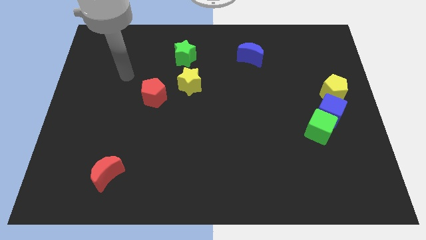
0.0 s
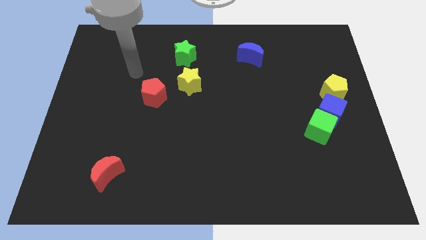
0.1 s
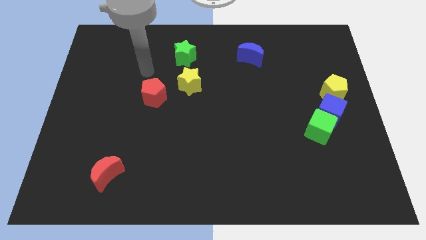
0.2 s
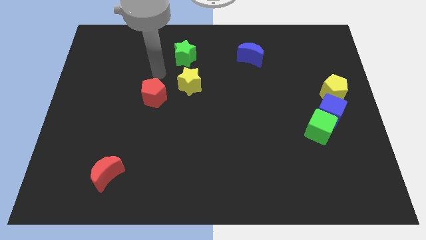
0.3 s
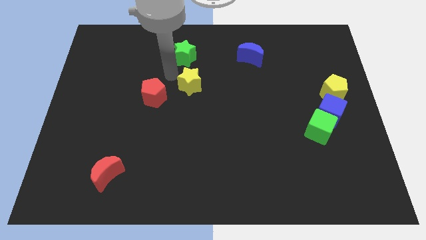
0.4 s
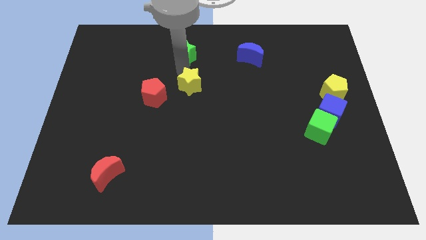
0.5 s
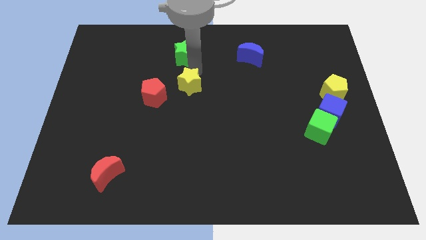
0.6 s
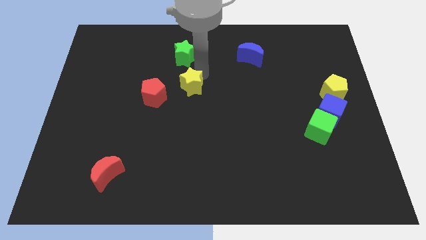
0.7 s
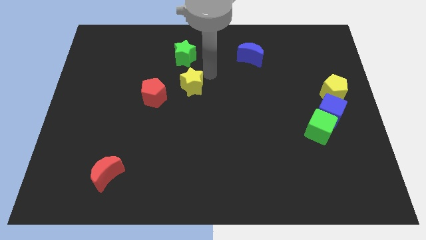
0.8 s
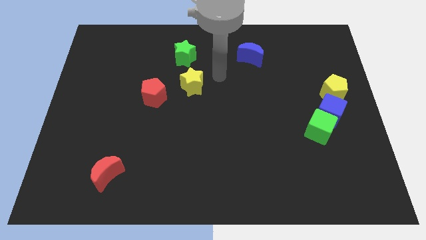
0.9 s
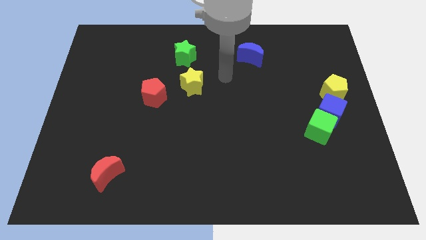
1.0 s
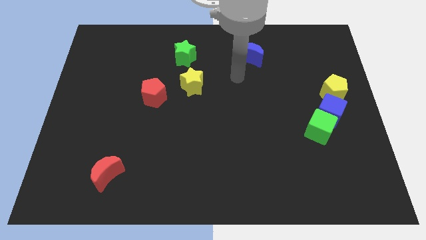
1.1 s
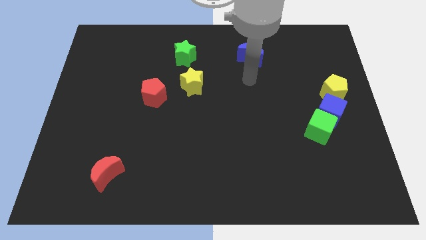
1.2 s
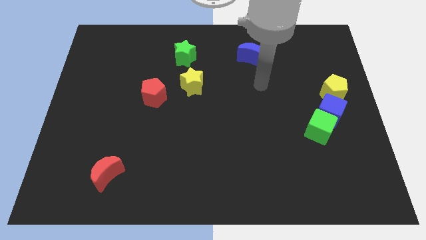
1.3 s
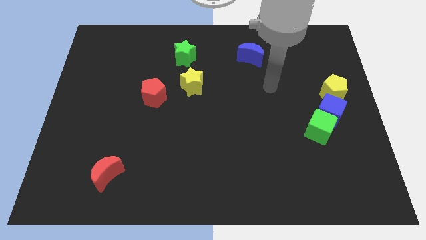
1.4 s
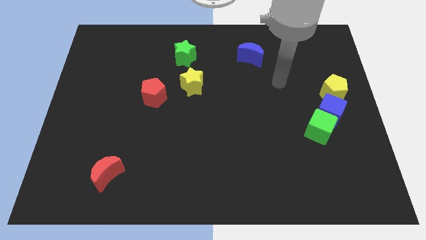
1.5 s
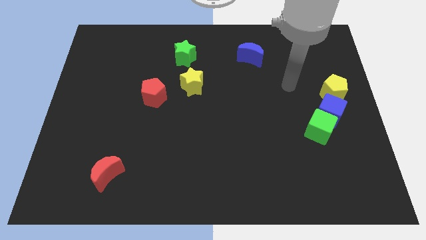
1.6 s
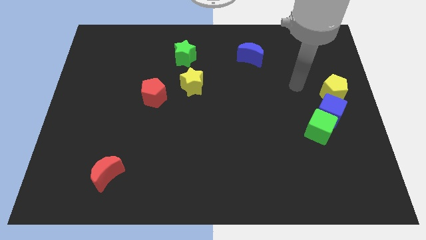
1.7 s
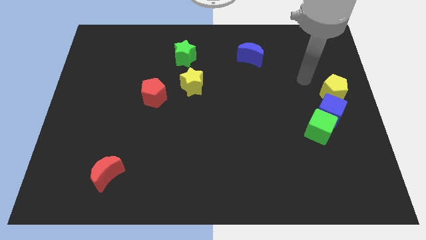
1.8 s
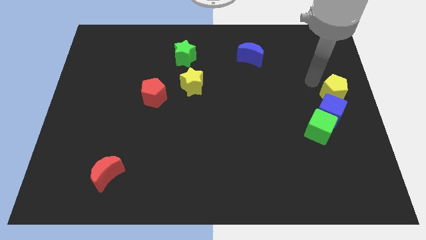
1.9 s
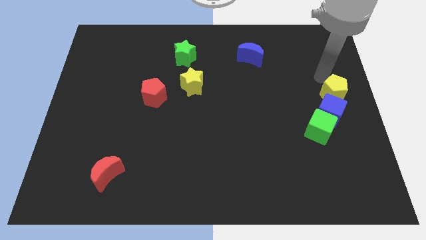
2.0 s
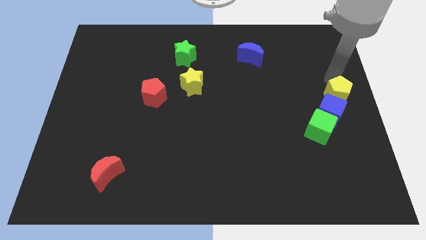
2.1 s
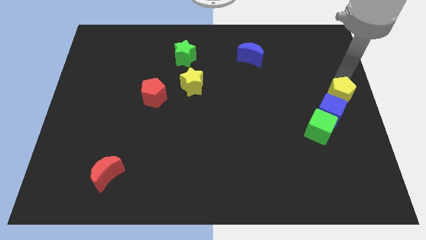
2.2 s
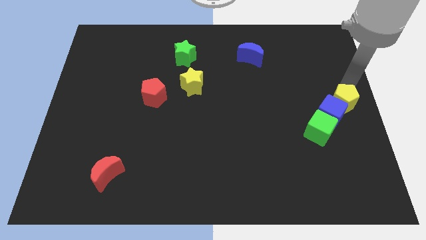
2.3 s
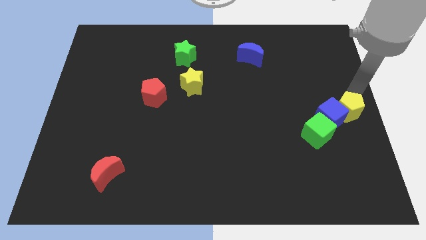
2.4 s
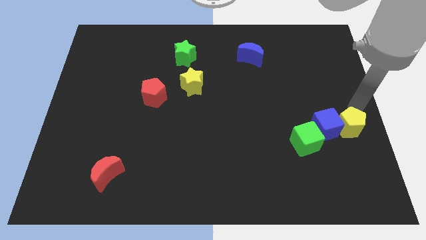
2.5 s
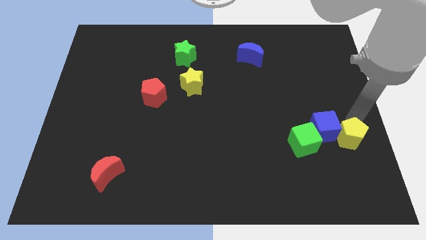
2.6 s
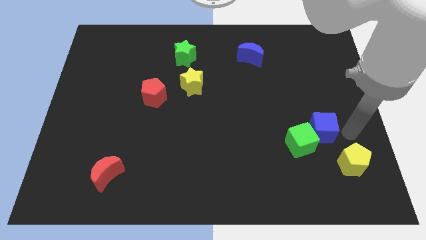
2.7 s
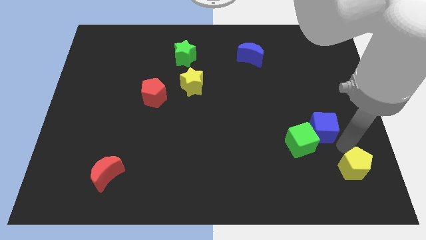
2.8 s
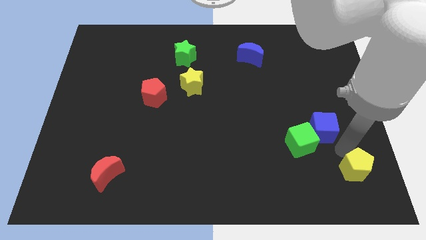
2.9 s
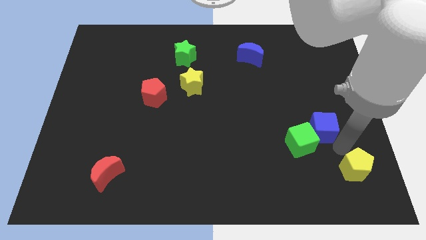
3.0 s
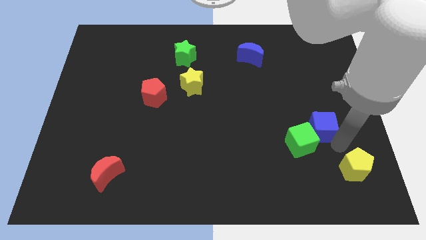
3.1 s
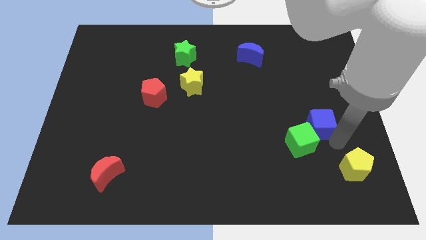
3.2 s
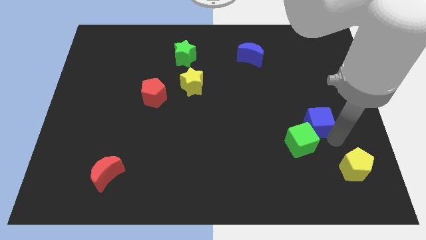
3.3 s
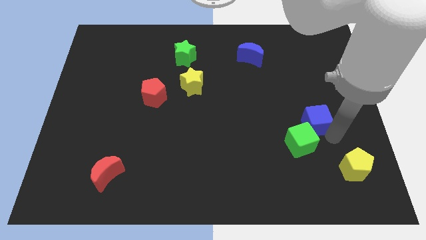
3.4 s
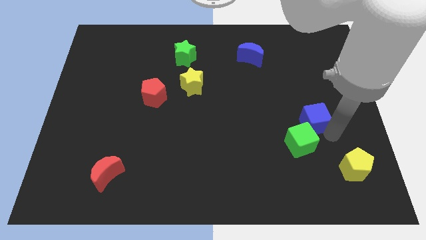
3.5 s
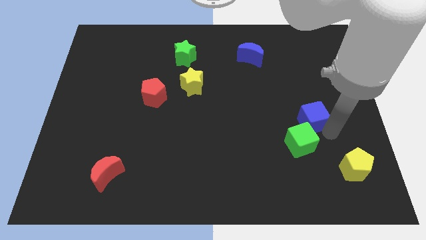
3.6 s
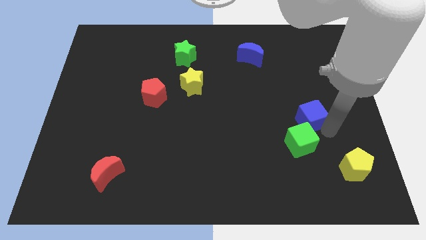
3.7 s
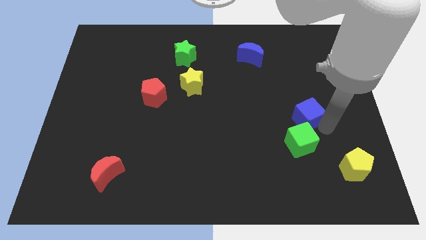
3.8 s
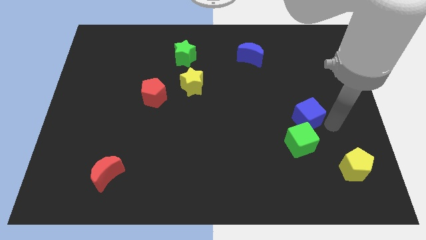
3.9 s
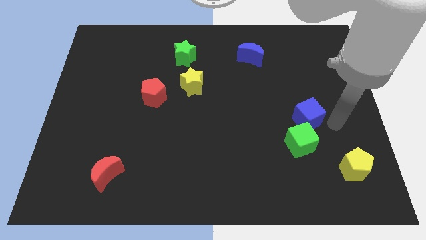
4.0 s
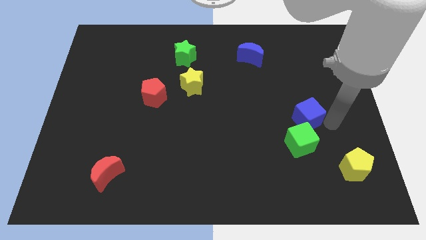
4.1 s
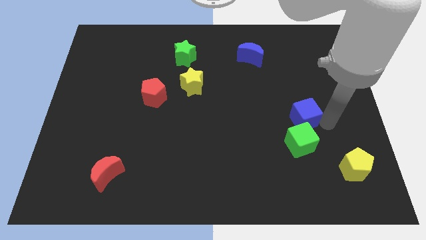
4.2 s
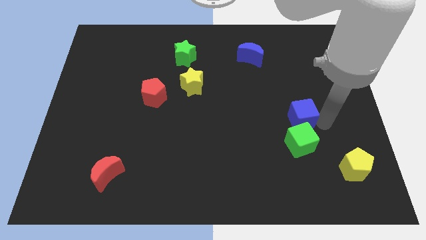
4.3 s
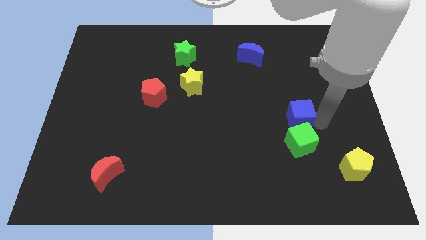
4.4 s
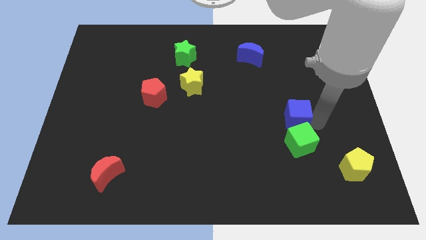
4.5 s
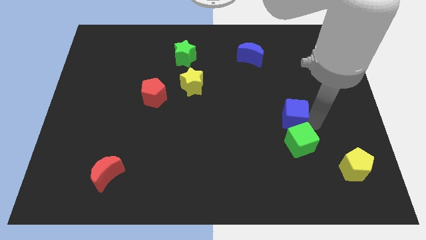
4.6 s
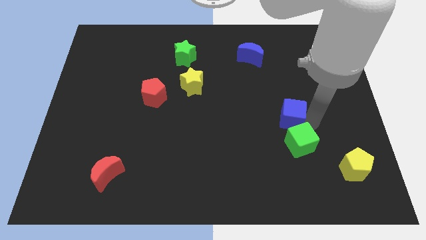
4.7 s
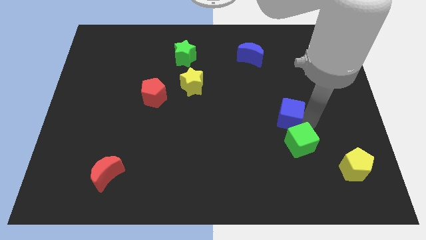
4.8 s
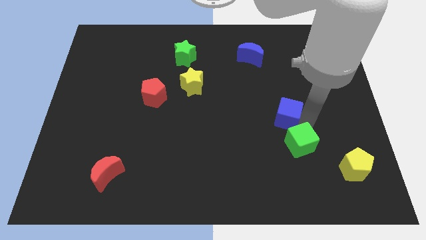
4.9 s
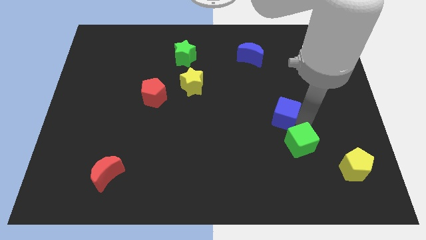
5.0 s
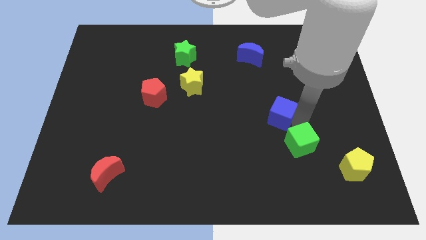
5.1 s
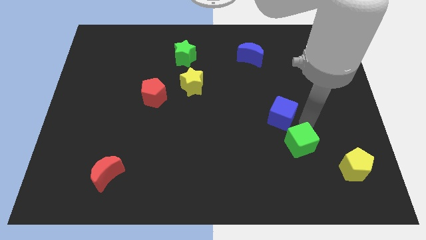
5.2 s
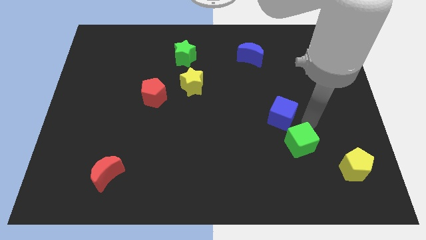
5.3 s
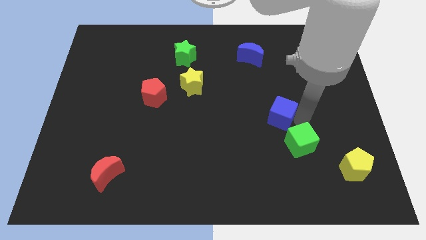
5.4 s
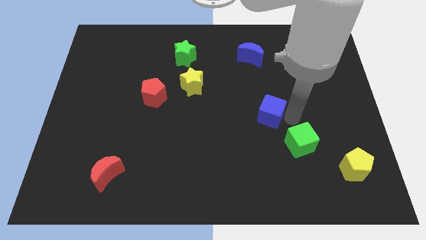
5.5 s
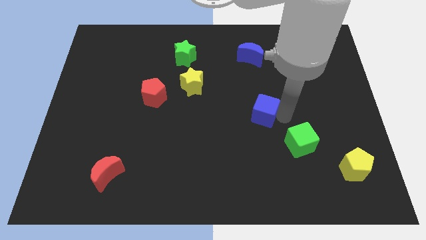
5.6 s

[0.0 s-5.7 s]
slide the blue cube to the middle of the board

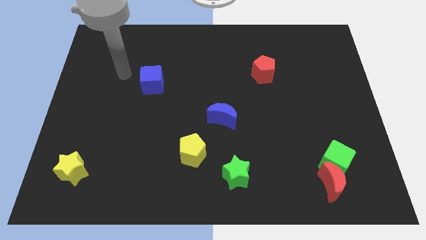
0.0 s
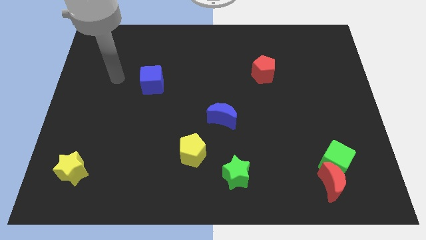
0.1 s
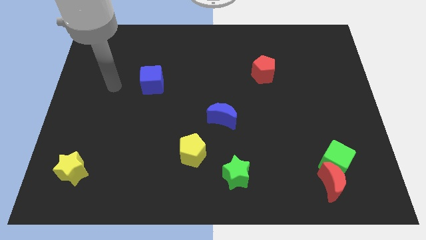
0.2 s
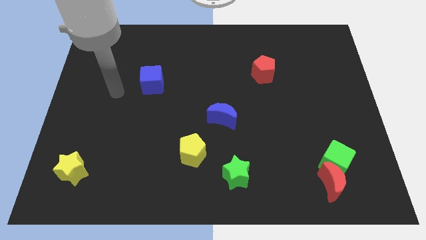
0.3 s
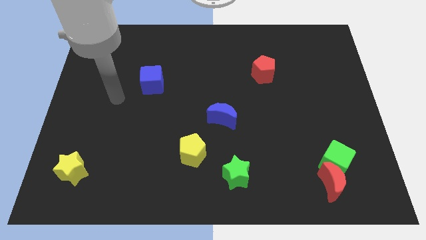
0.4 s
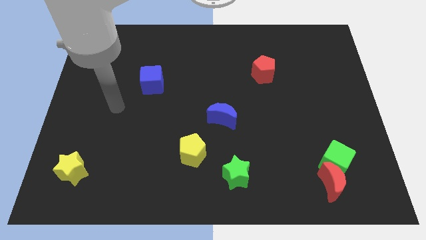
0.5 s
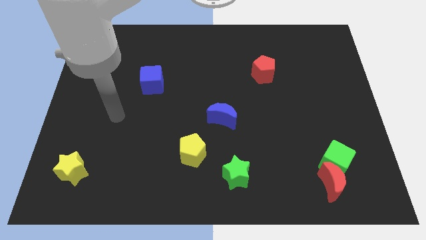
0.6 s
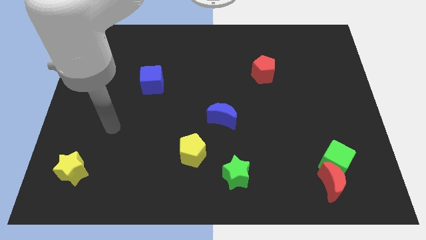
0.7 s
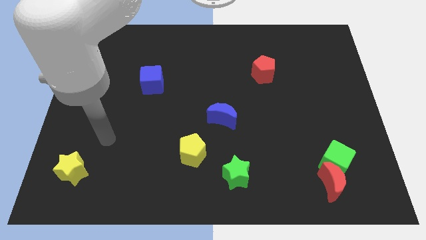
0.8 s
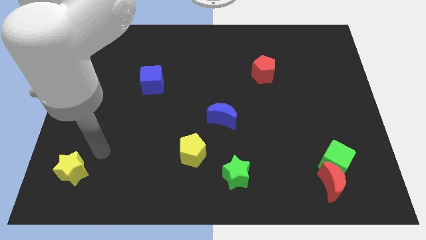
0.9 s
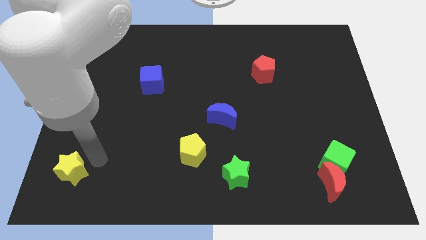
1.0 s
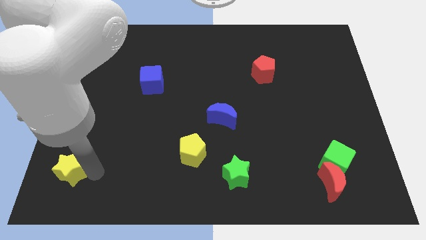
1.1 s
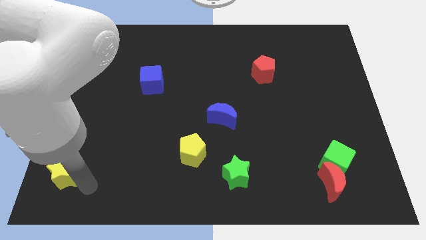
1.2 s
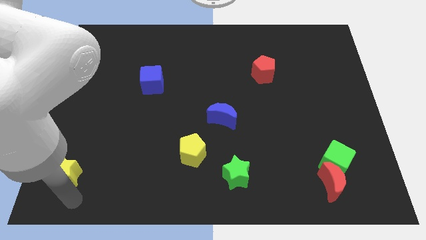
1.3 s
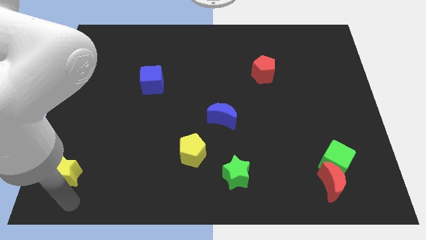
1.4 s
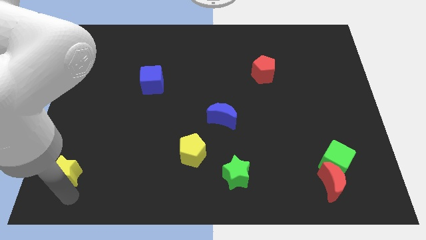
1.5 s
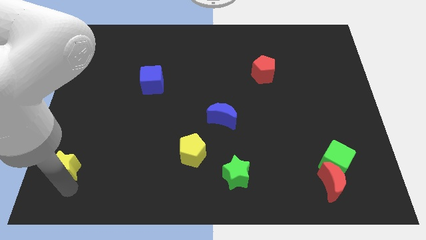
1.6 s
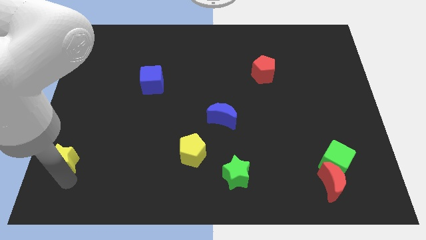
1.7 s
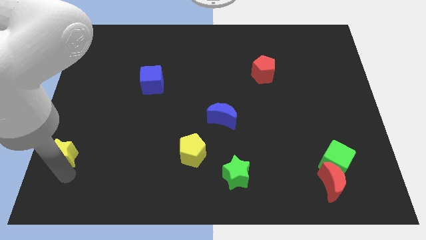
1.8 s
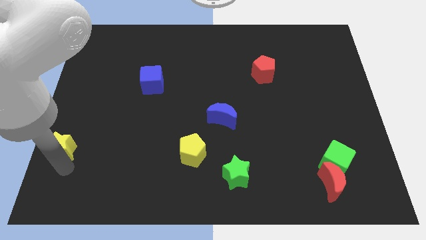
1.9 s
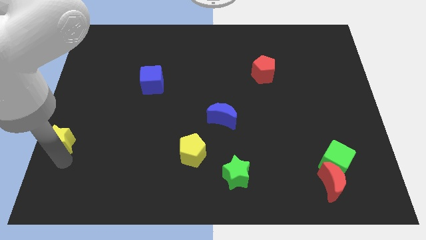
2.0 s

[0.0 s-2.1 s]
put the yellow star to the left side
